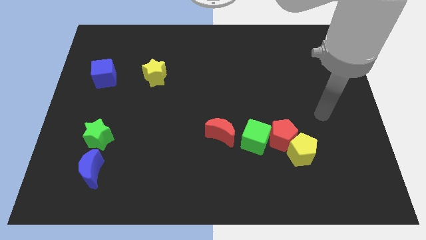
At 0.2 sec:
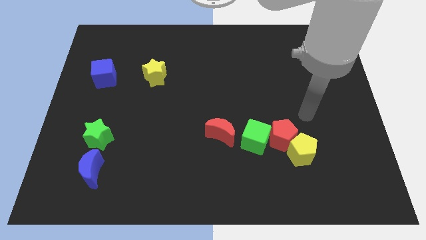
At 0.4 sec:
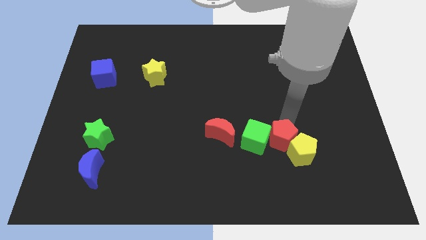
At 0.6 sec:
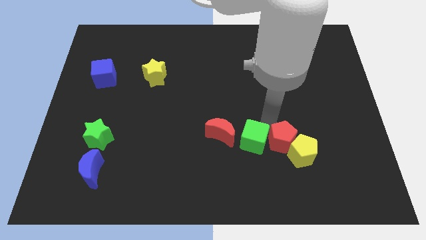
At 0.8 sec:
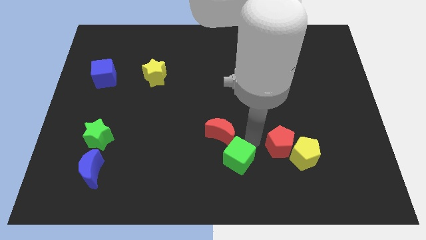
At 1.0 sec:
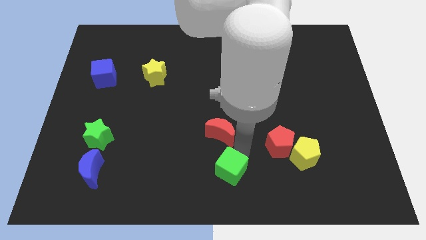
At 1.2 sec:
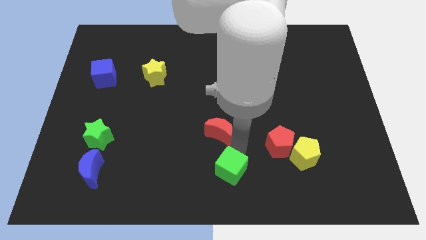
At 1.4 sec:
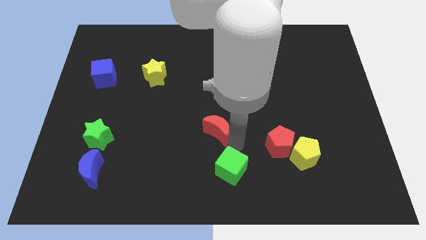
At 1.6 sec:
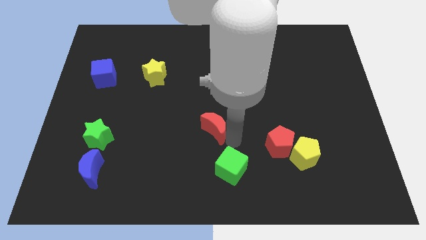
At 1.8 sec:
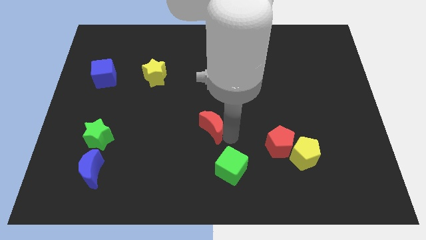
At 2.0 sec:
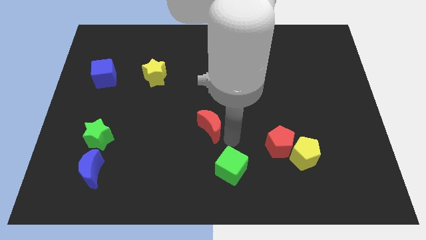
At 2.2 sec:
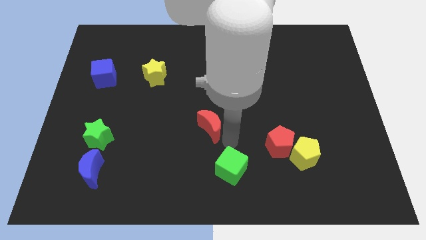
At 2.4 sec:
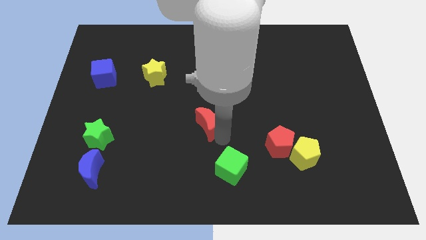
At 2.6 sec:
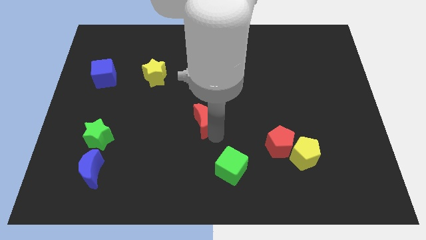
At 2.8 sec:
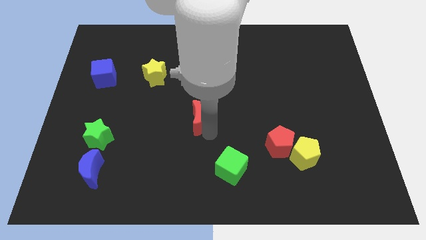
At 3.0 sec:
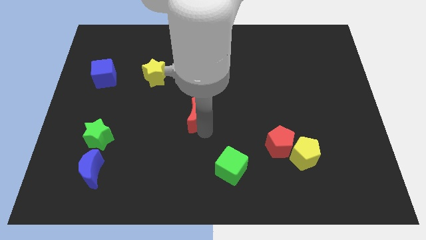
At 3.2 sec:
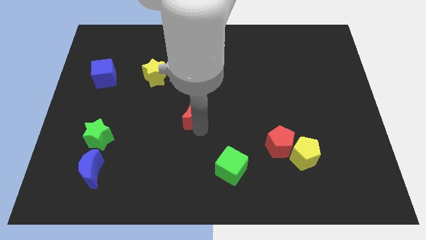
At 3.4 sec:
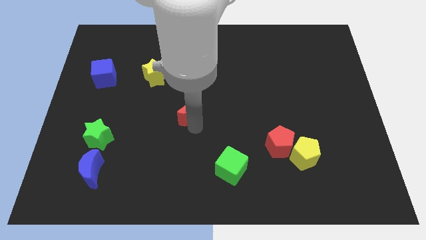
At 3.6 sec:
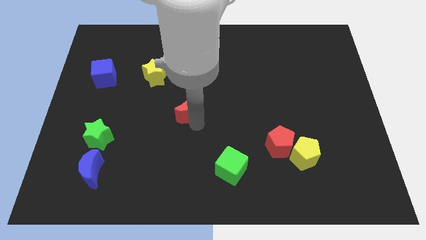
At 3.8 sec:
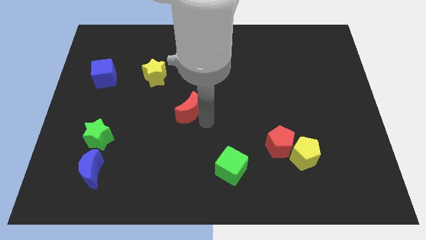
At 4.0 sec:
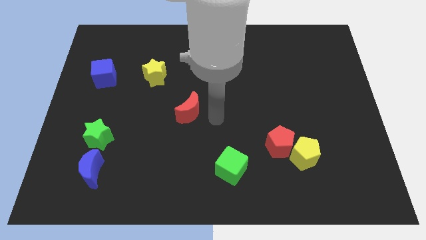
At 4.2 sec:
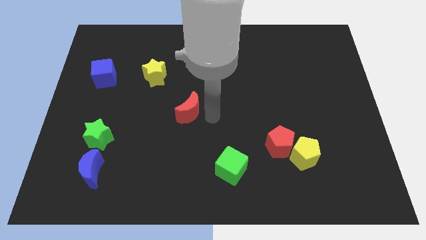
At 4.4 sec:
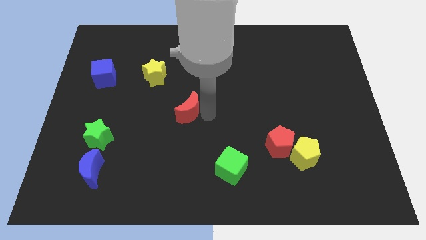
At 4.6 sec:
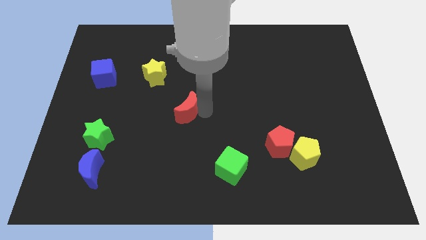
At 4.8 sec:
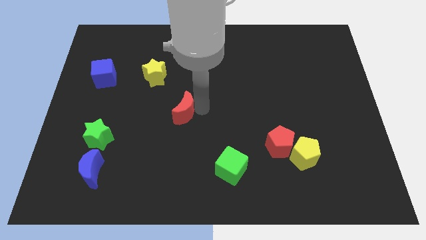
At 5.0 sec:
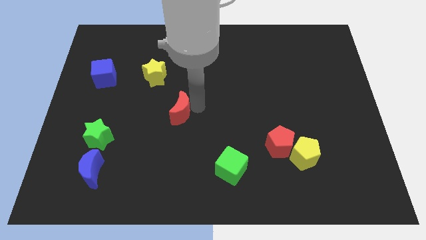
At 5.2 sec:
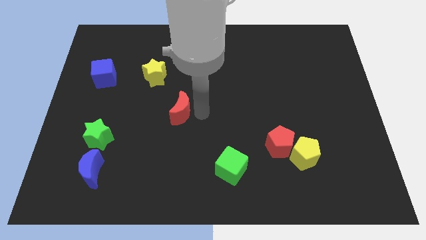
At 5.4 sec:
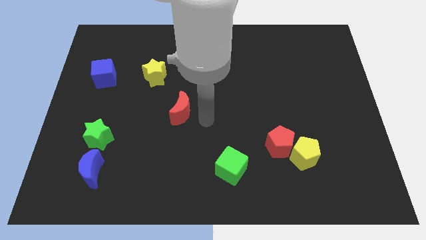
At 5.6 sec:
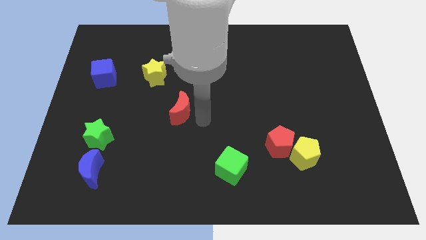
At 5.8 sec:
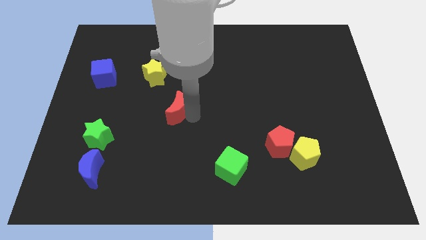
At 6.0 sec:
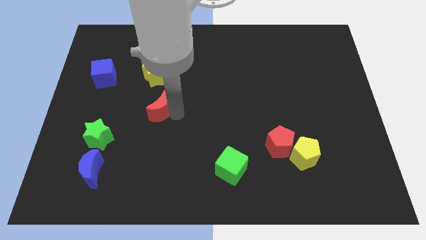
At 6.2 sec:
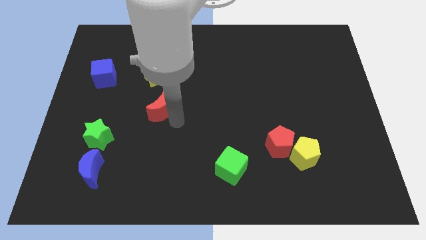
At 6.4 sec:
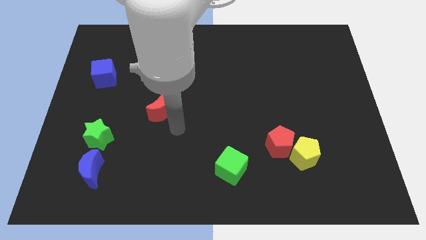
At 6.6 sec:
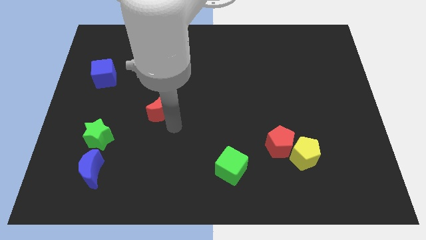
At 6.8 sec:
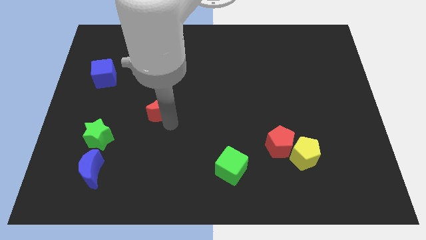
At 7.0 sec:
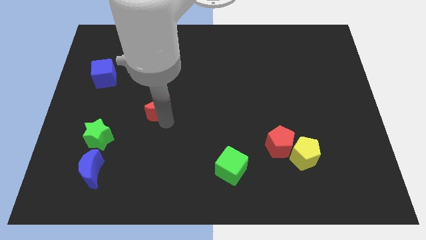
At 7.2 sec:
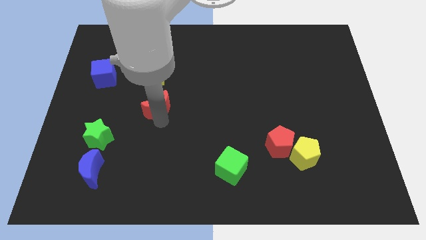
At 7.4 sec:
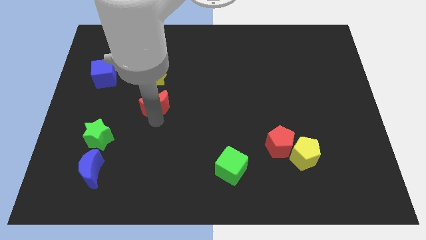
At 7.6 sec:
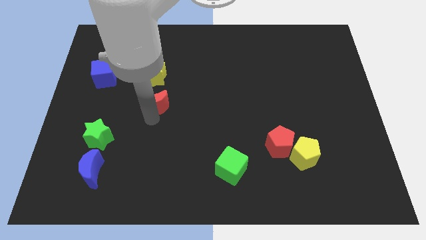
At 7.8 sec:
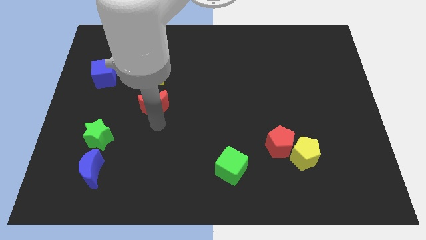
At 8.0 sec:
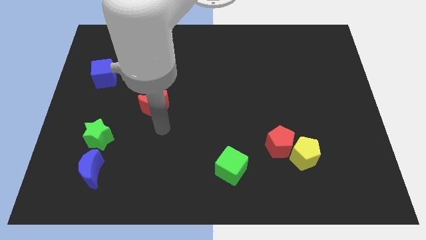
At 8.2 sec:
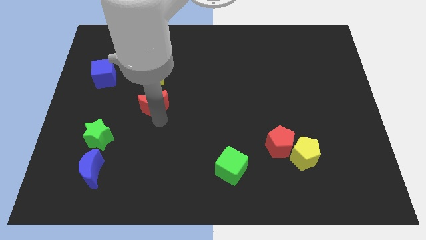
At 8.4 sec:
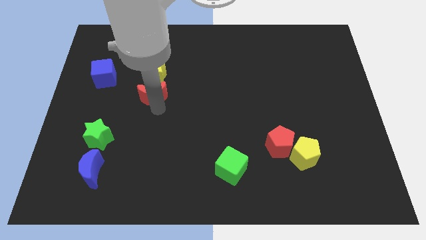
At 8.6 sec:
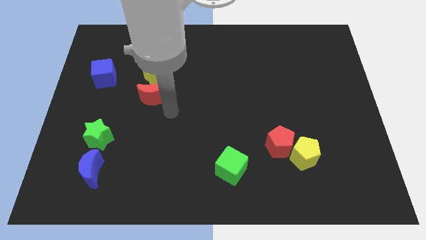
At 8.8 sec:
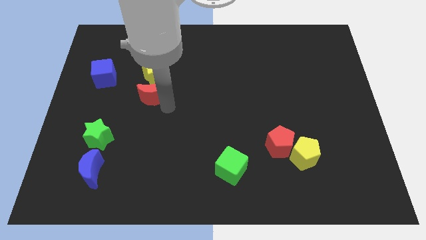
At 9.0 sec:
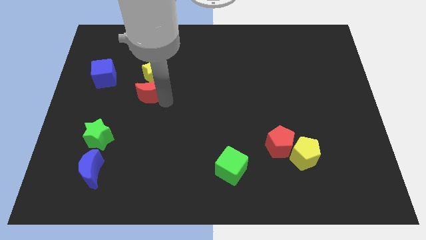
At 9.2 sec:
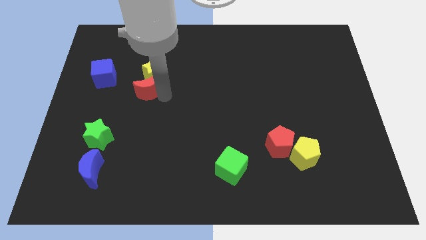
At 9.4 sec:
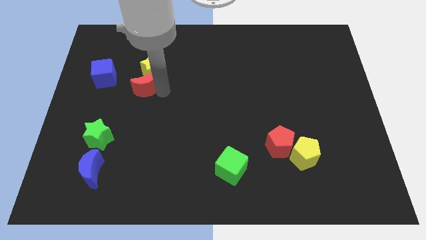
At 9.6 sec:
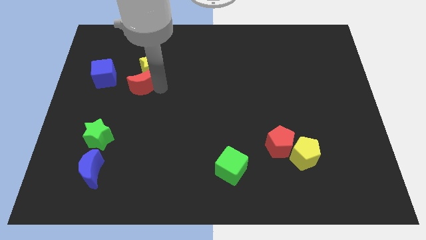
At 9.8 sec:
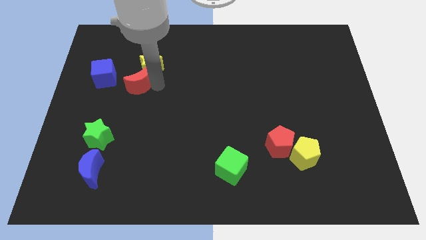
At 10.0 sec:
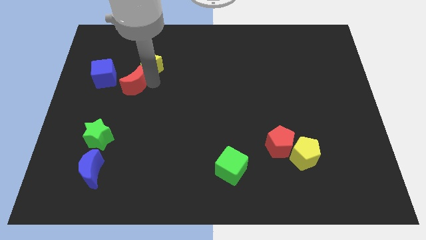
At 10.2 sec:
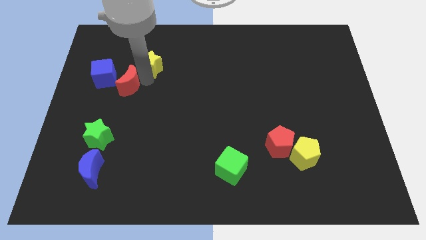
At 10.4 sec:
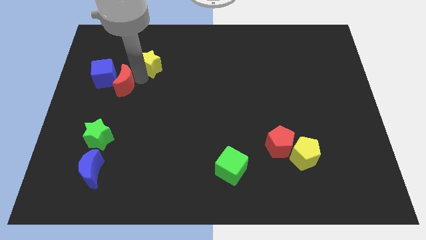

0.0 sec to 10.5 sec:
slide the red moon close to the blue cube

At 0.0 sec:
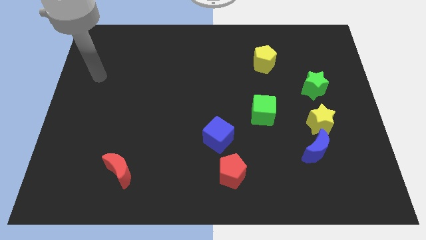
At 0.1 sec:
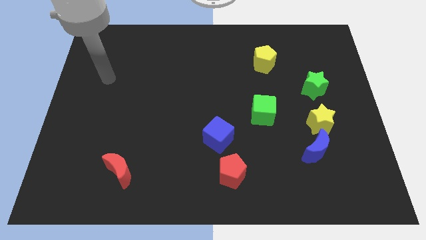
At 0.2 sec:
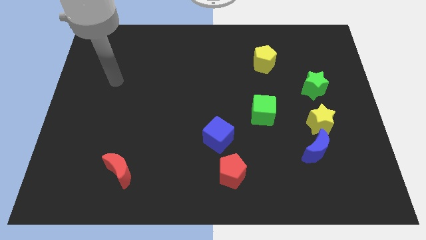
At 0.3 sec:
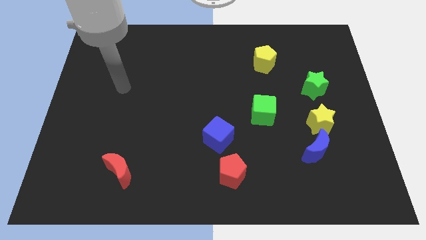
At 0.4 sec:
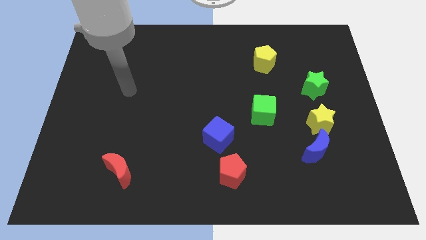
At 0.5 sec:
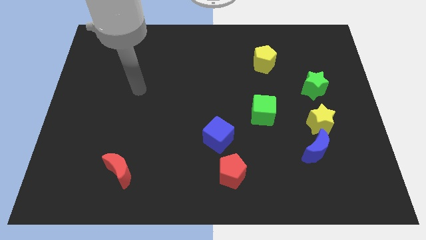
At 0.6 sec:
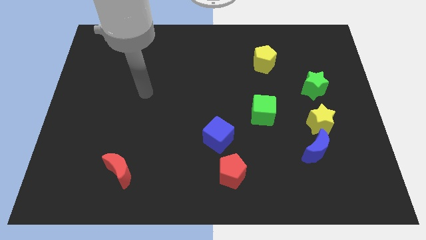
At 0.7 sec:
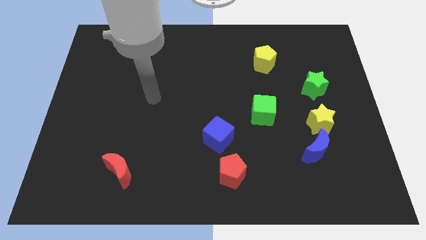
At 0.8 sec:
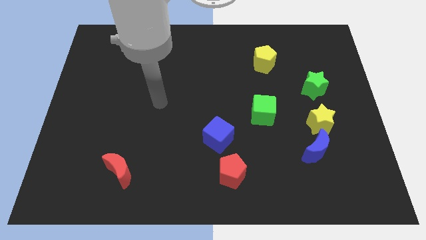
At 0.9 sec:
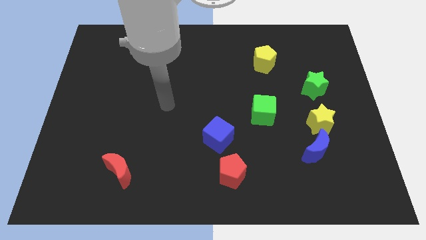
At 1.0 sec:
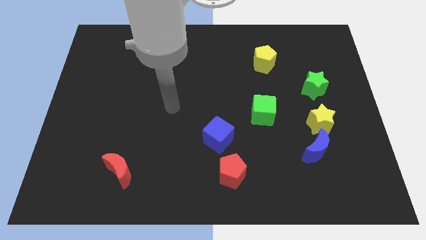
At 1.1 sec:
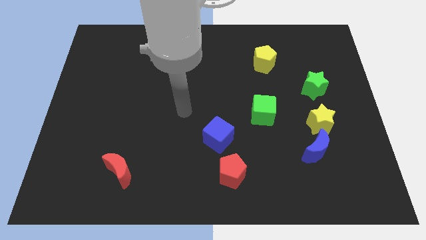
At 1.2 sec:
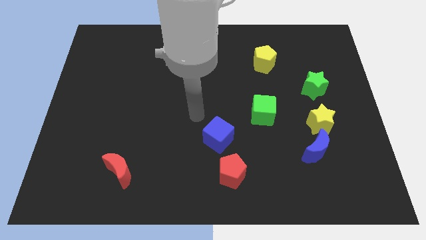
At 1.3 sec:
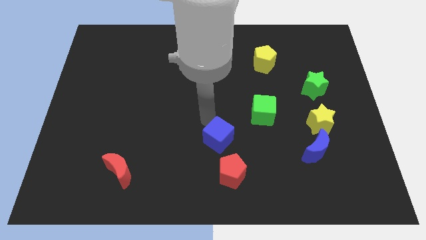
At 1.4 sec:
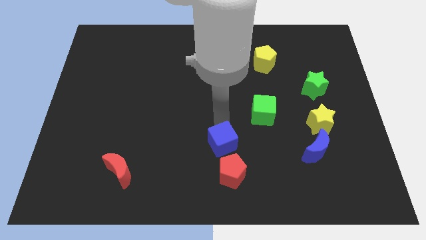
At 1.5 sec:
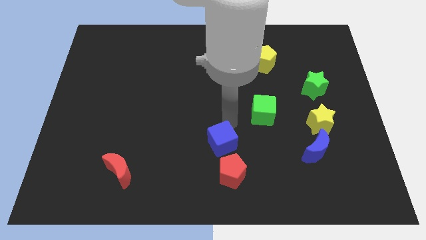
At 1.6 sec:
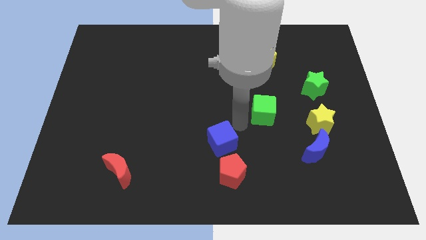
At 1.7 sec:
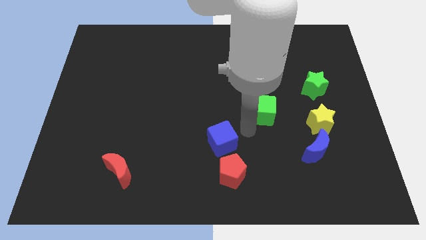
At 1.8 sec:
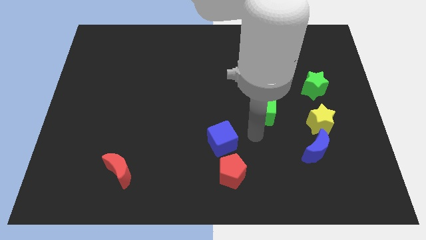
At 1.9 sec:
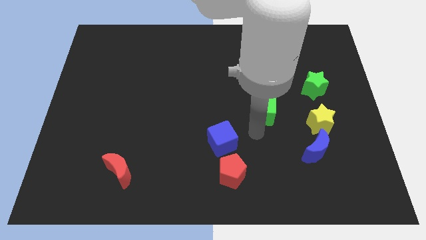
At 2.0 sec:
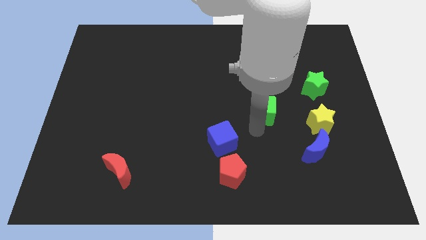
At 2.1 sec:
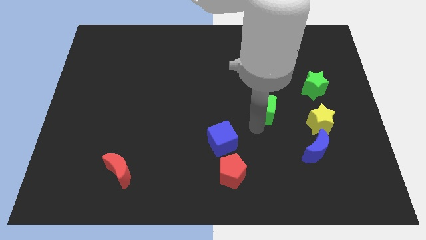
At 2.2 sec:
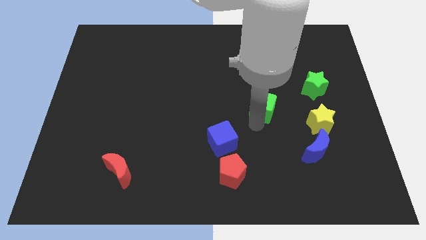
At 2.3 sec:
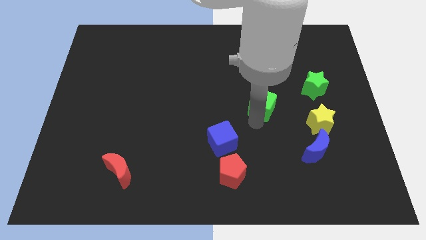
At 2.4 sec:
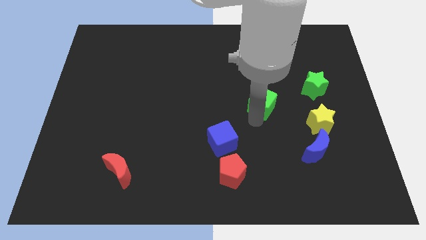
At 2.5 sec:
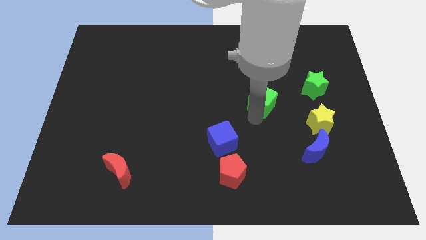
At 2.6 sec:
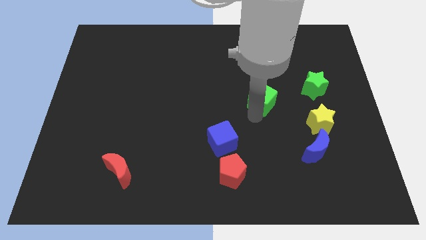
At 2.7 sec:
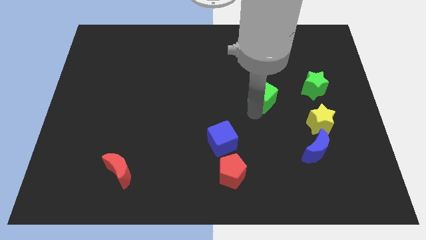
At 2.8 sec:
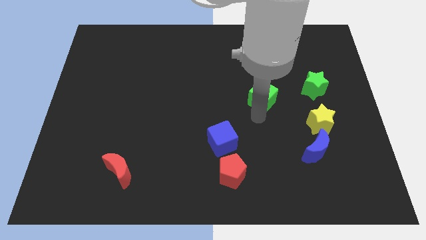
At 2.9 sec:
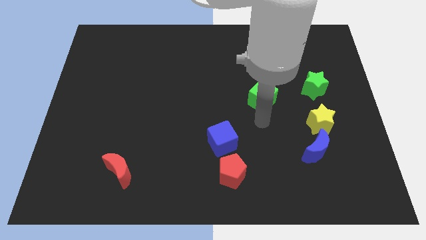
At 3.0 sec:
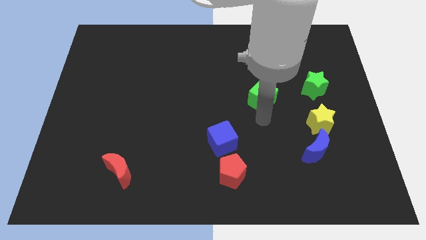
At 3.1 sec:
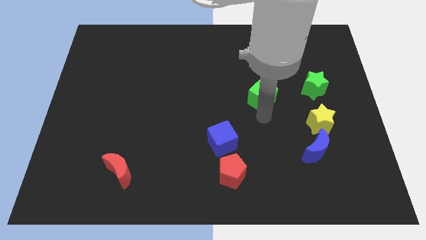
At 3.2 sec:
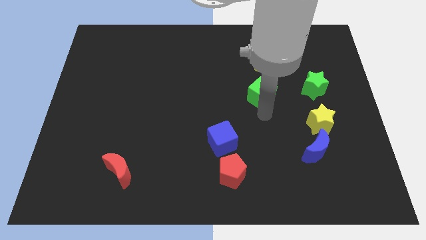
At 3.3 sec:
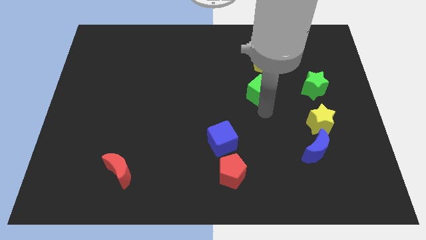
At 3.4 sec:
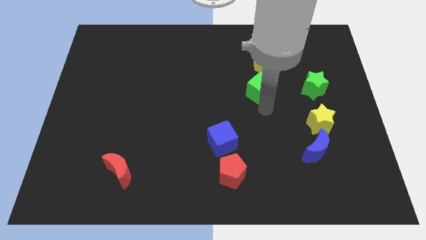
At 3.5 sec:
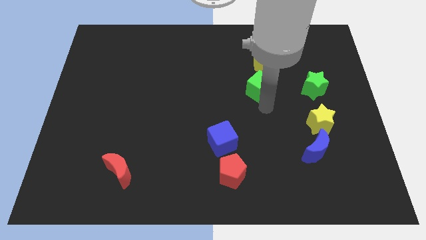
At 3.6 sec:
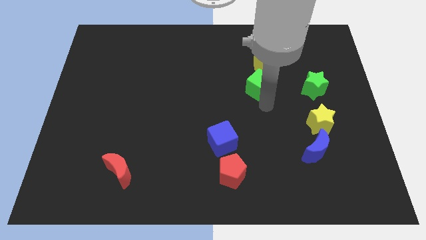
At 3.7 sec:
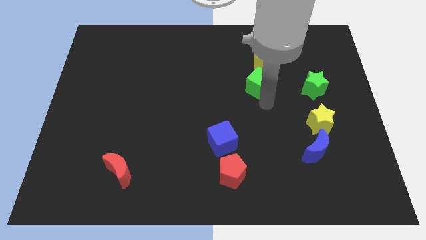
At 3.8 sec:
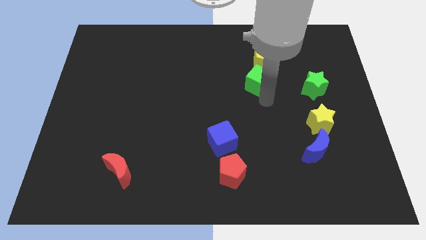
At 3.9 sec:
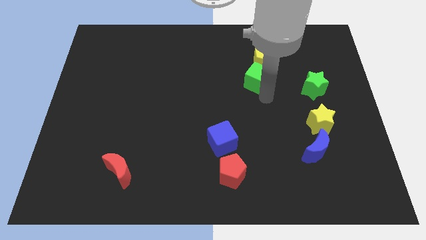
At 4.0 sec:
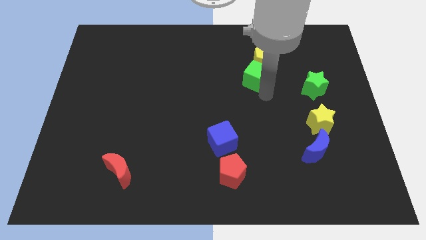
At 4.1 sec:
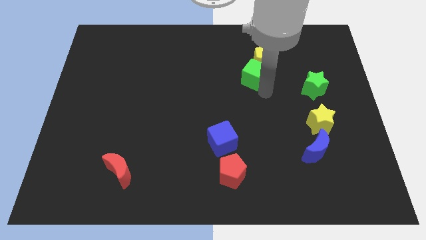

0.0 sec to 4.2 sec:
move the green cube towards the yellow pentagon
